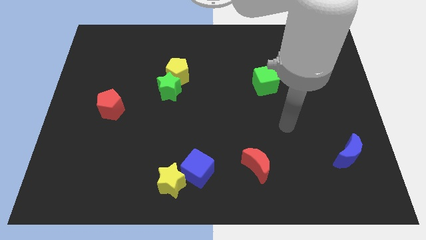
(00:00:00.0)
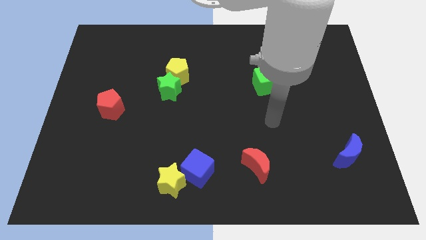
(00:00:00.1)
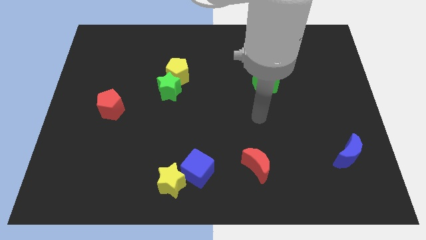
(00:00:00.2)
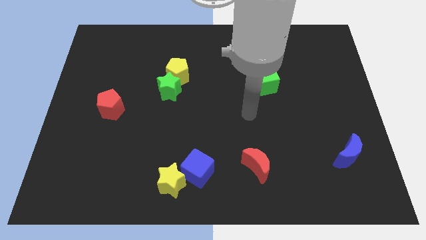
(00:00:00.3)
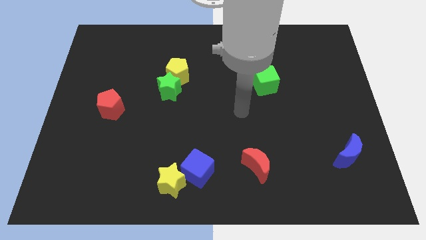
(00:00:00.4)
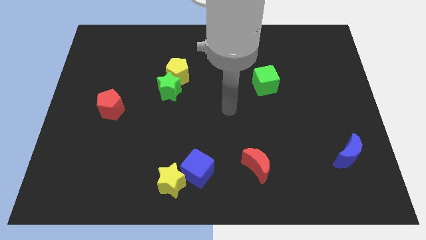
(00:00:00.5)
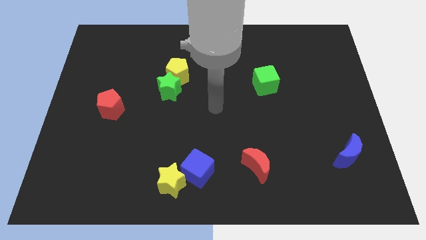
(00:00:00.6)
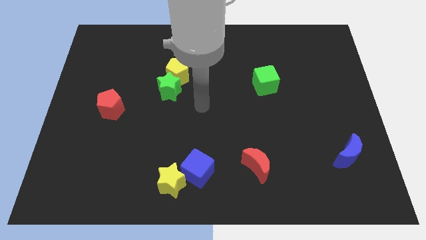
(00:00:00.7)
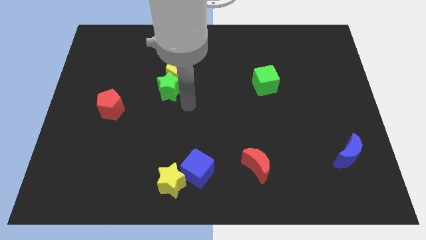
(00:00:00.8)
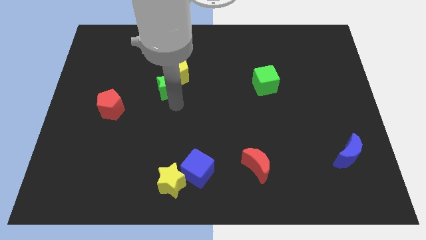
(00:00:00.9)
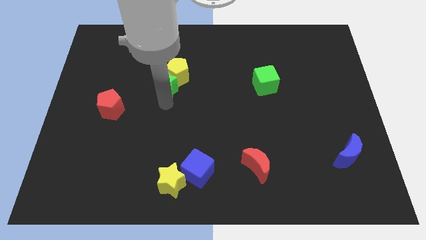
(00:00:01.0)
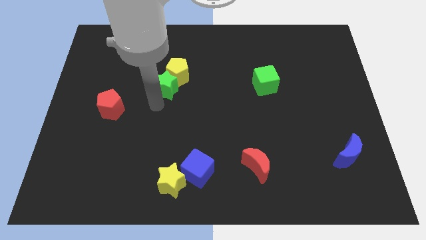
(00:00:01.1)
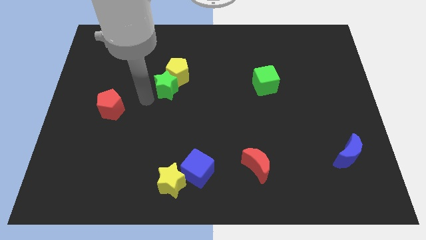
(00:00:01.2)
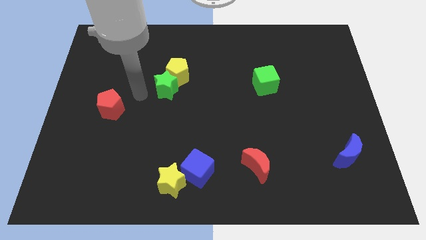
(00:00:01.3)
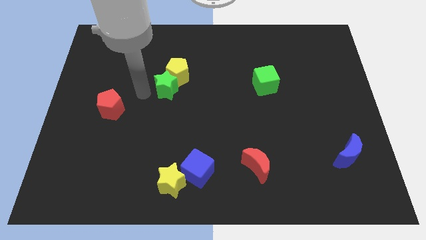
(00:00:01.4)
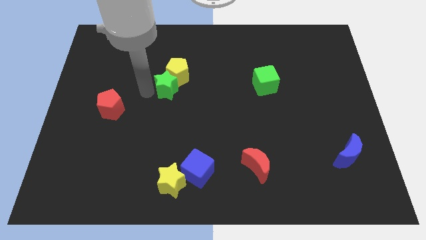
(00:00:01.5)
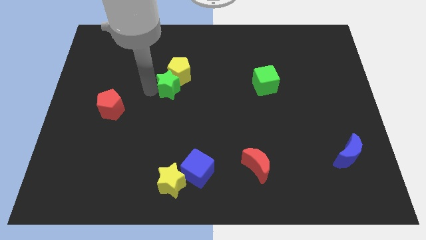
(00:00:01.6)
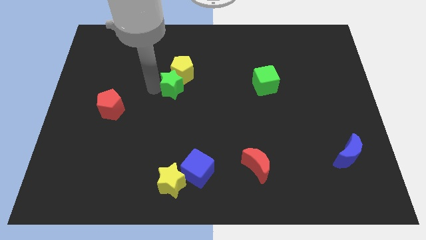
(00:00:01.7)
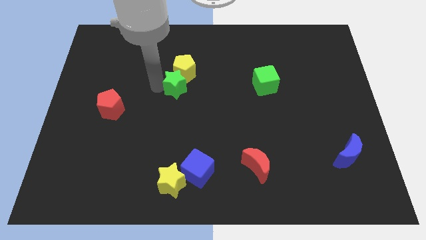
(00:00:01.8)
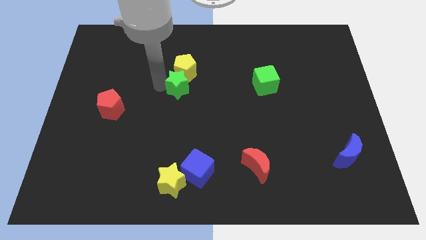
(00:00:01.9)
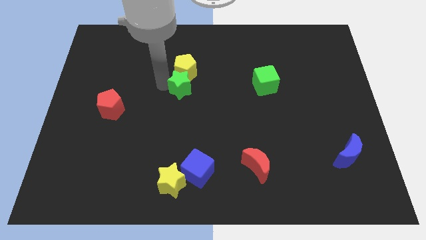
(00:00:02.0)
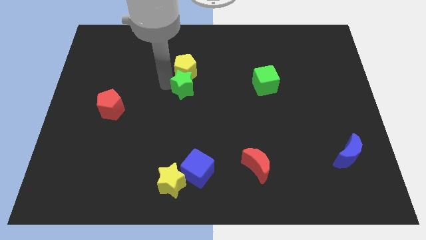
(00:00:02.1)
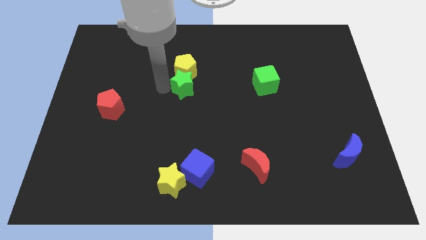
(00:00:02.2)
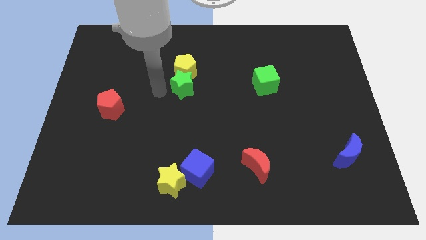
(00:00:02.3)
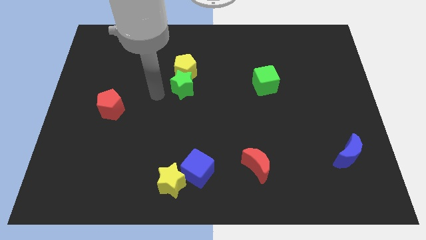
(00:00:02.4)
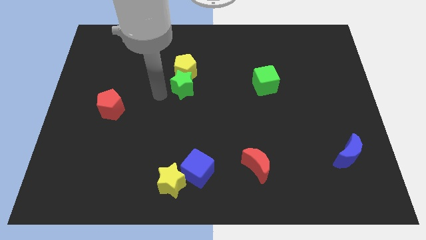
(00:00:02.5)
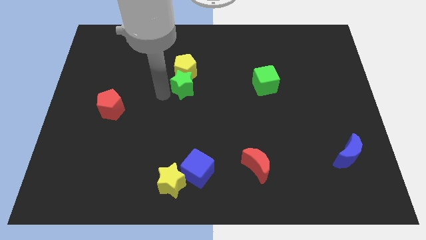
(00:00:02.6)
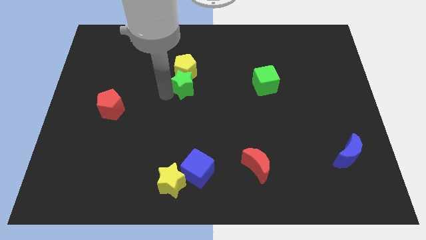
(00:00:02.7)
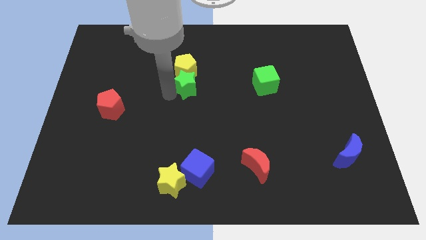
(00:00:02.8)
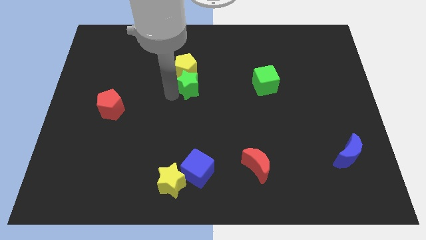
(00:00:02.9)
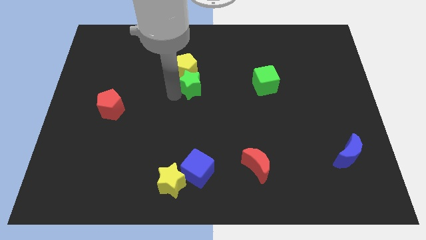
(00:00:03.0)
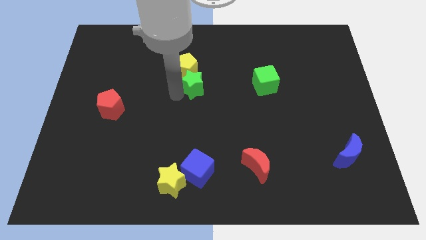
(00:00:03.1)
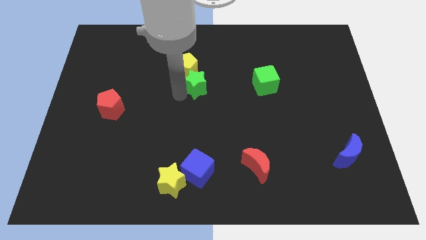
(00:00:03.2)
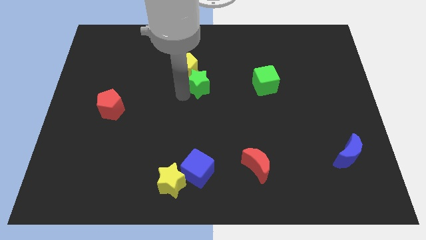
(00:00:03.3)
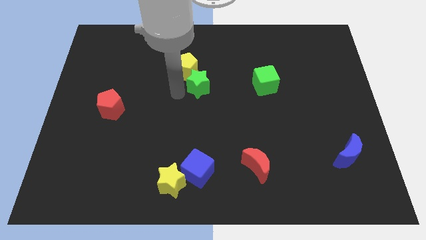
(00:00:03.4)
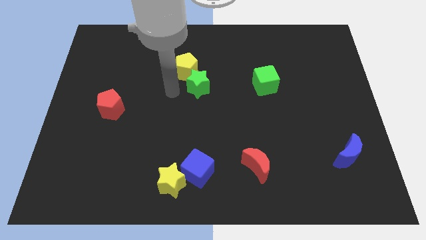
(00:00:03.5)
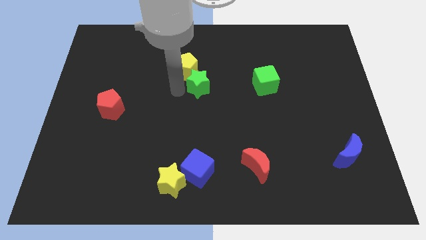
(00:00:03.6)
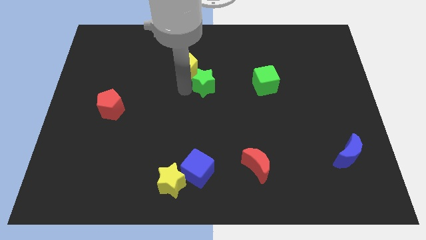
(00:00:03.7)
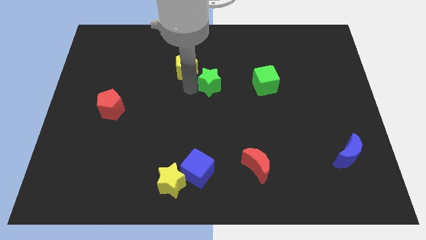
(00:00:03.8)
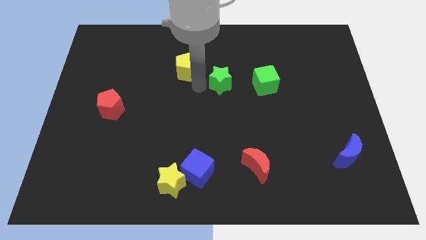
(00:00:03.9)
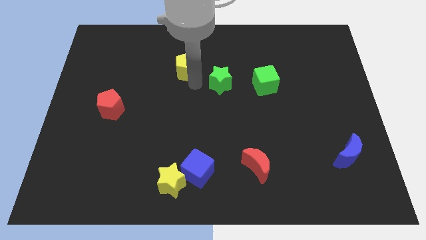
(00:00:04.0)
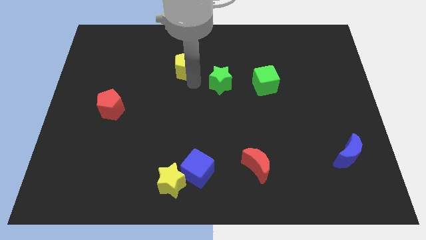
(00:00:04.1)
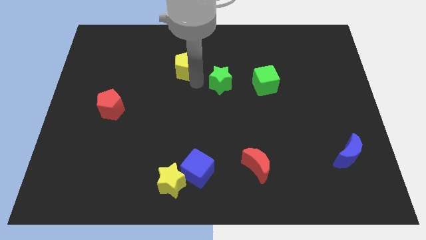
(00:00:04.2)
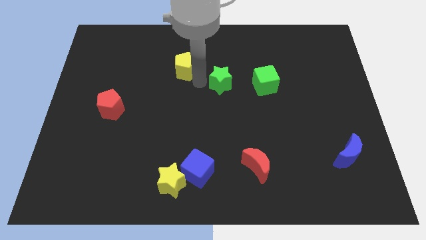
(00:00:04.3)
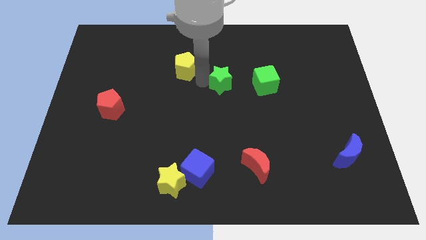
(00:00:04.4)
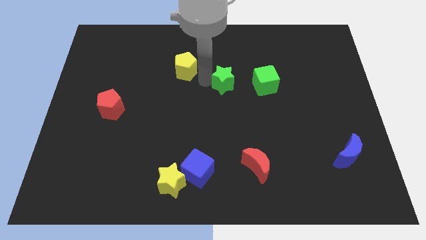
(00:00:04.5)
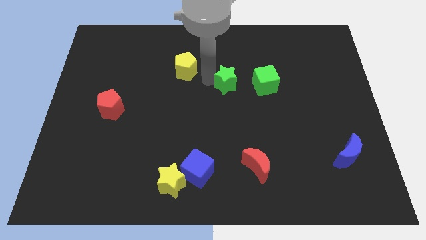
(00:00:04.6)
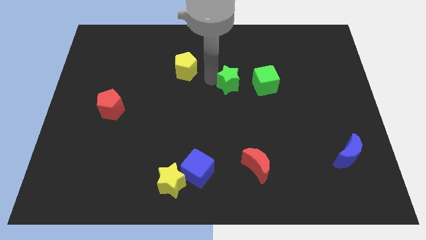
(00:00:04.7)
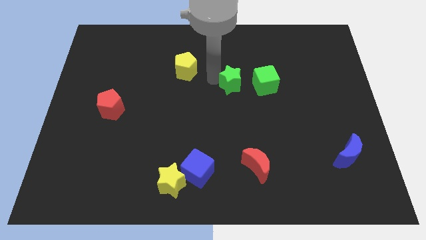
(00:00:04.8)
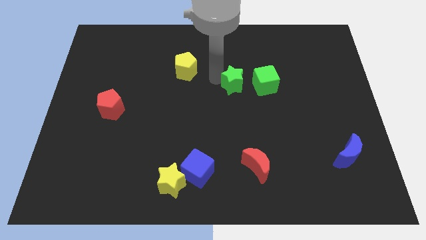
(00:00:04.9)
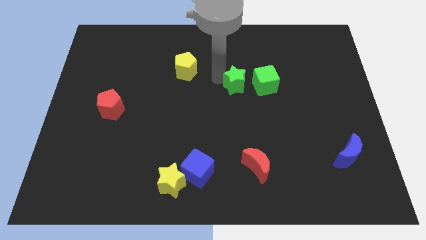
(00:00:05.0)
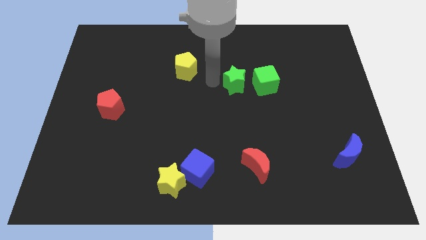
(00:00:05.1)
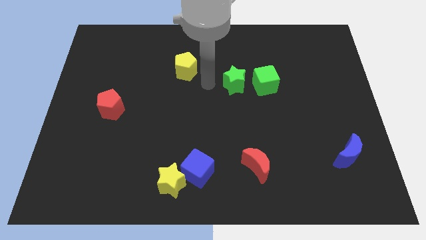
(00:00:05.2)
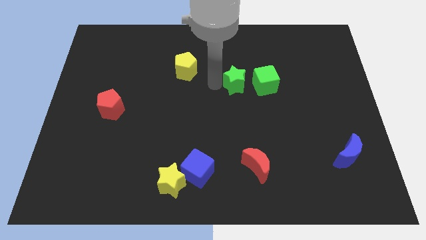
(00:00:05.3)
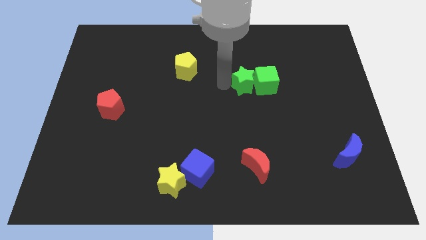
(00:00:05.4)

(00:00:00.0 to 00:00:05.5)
put the green star to the green cube

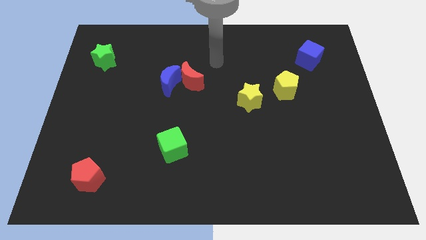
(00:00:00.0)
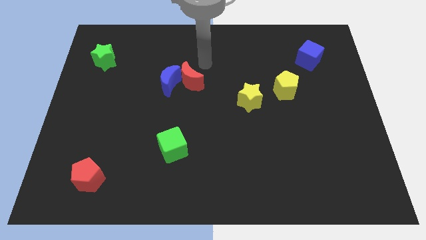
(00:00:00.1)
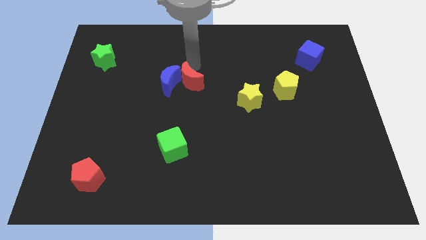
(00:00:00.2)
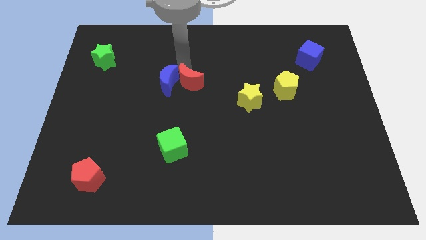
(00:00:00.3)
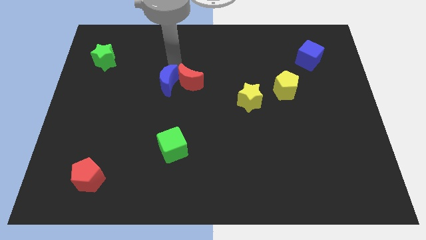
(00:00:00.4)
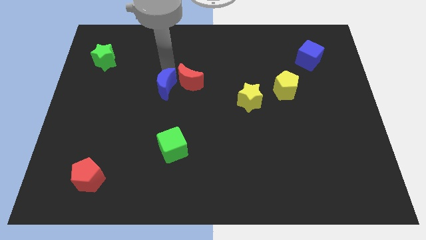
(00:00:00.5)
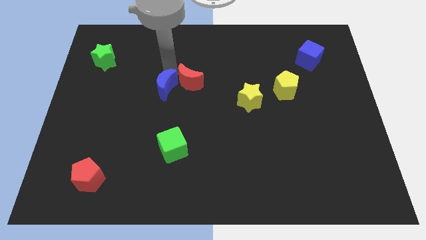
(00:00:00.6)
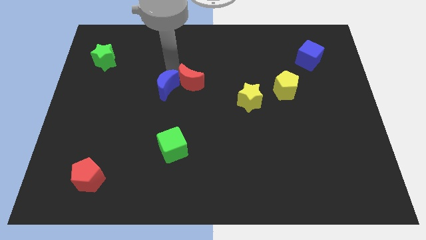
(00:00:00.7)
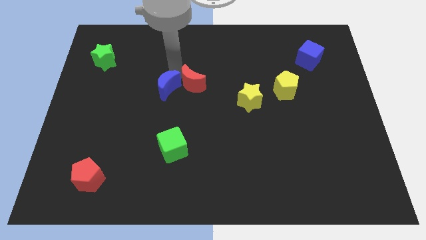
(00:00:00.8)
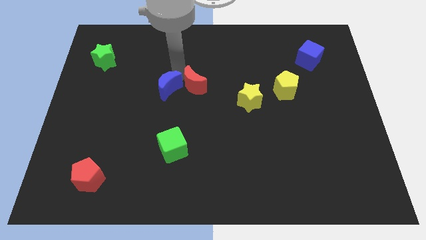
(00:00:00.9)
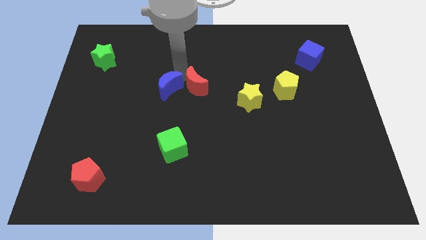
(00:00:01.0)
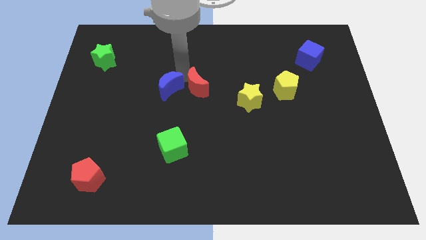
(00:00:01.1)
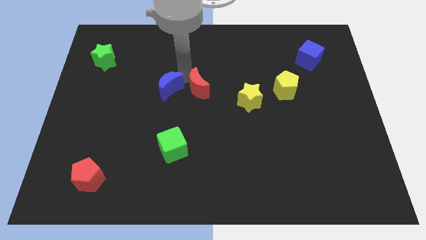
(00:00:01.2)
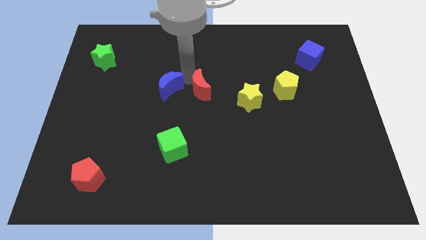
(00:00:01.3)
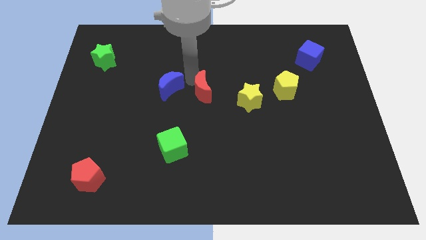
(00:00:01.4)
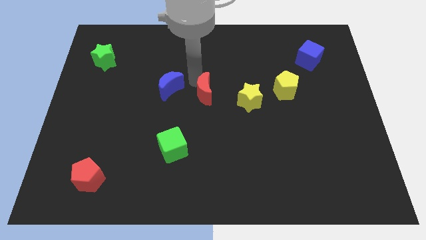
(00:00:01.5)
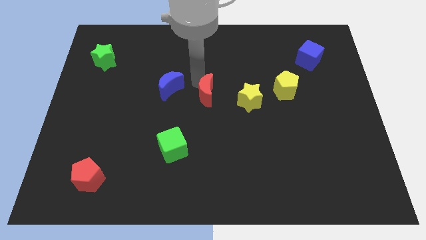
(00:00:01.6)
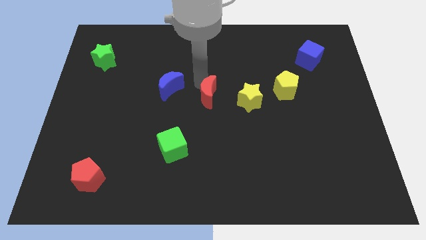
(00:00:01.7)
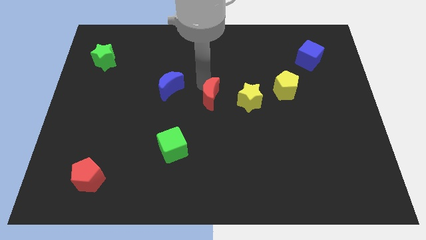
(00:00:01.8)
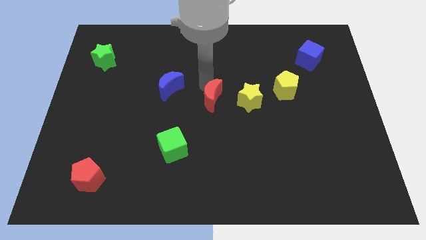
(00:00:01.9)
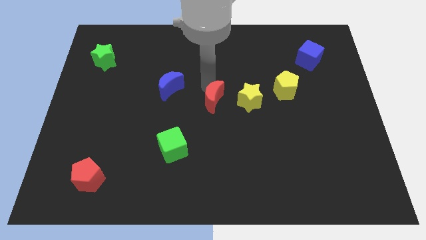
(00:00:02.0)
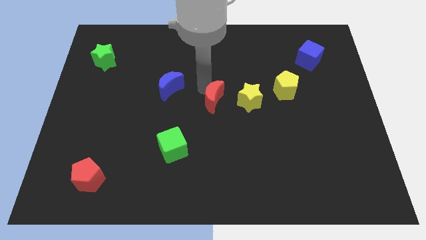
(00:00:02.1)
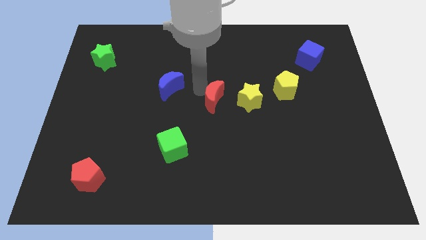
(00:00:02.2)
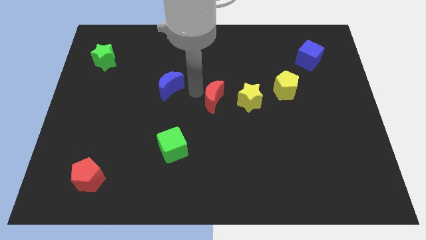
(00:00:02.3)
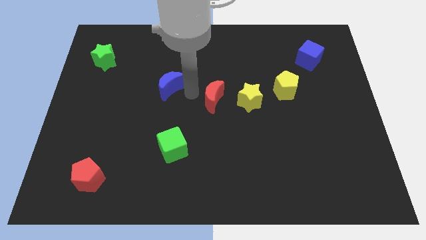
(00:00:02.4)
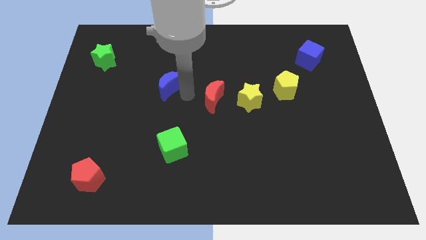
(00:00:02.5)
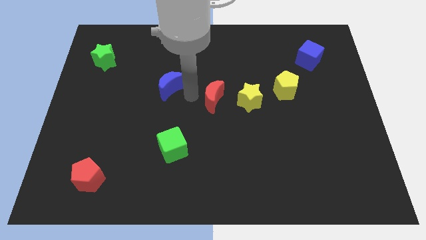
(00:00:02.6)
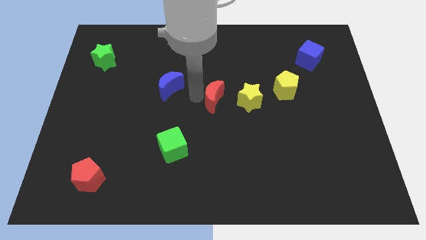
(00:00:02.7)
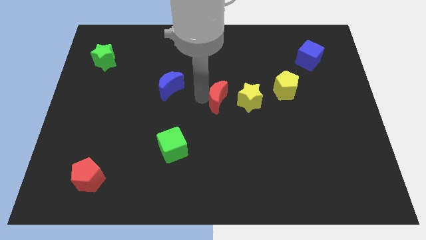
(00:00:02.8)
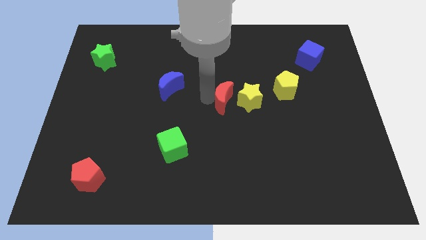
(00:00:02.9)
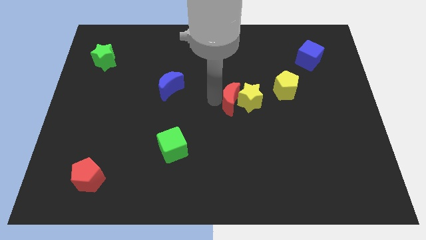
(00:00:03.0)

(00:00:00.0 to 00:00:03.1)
put the red moon close to the yellow star
